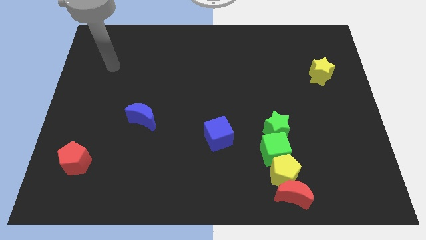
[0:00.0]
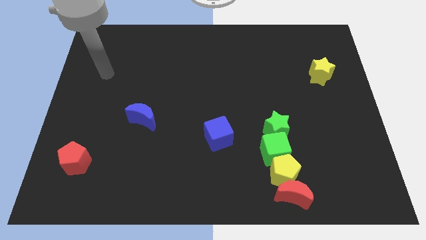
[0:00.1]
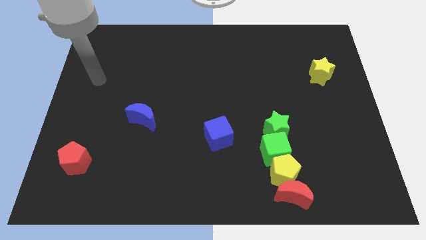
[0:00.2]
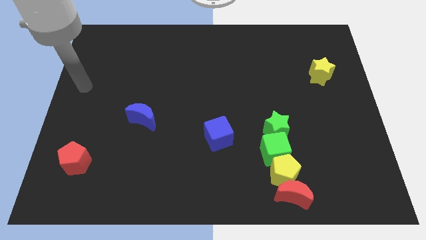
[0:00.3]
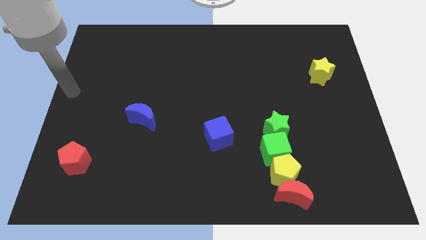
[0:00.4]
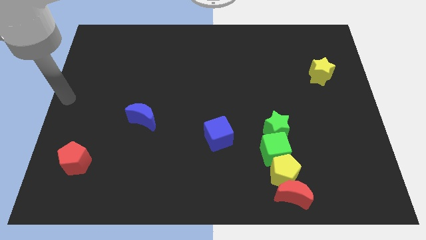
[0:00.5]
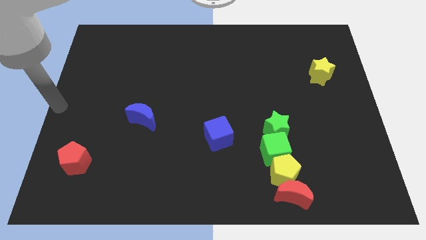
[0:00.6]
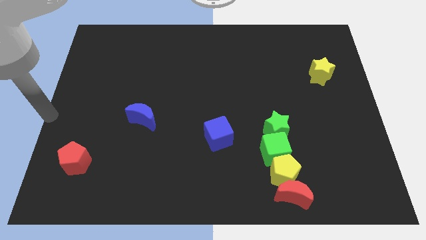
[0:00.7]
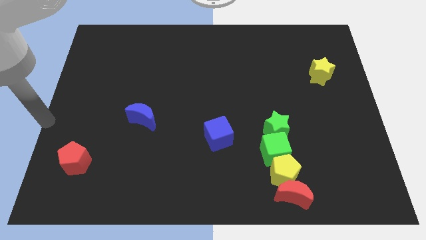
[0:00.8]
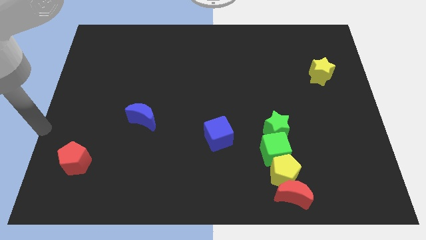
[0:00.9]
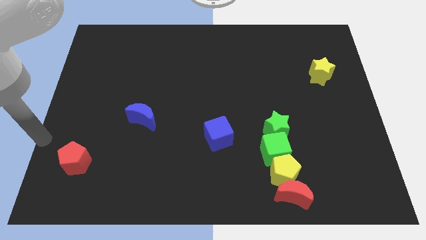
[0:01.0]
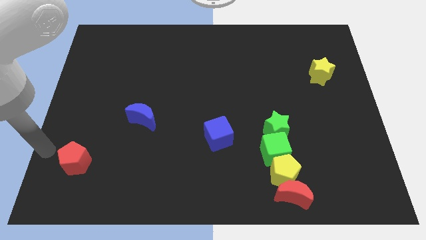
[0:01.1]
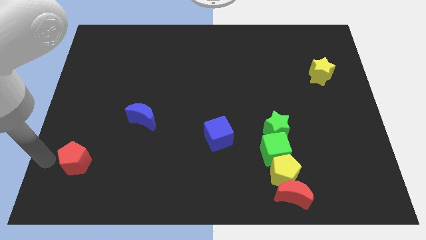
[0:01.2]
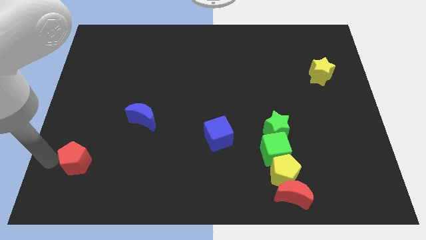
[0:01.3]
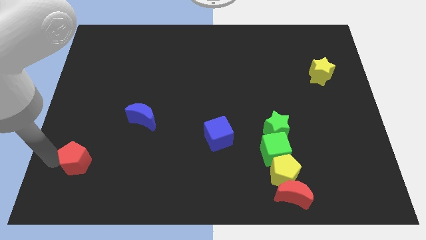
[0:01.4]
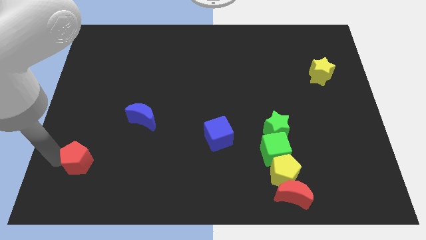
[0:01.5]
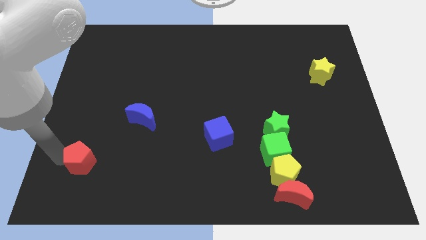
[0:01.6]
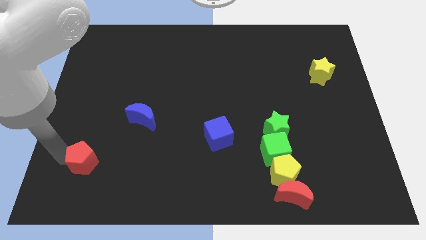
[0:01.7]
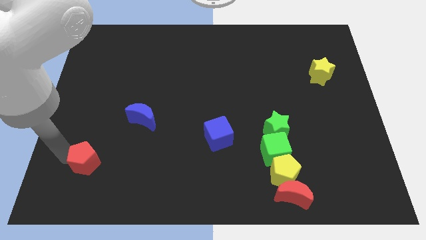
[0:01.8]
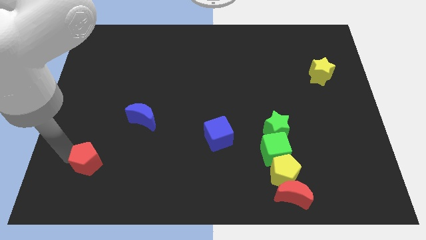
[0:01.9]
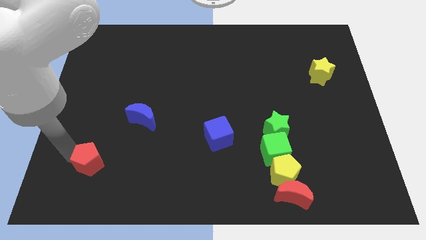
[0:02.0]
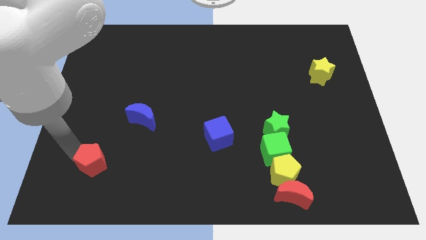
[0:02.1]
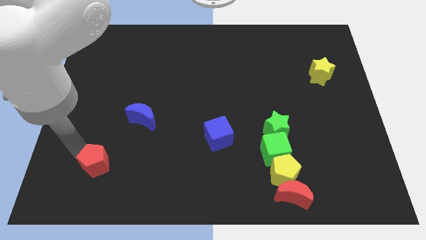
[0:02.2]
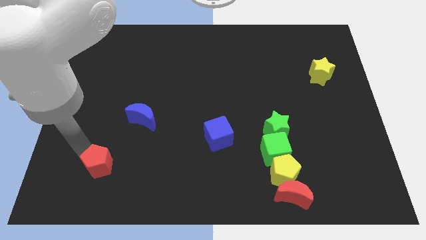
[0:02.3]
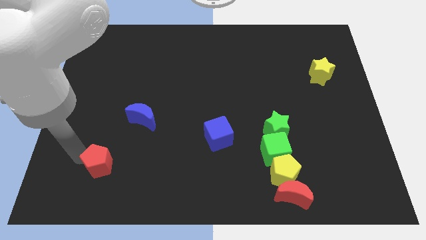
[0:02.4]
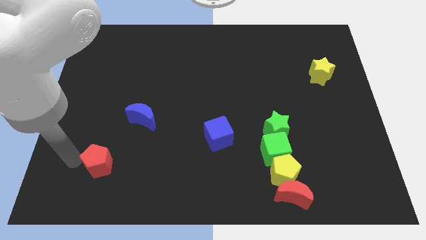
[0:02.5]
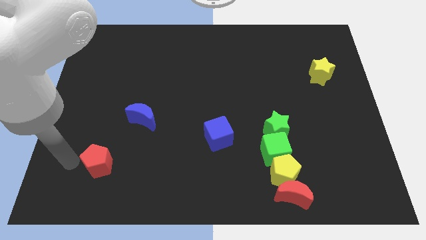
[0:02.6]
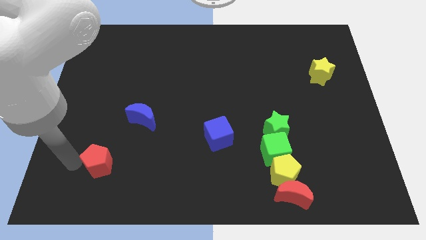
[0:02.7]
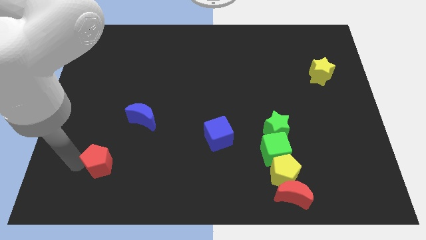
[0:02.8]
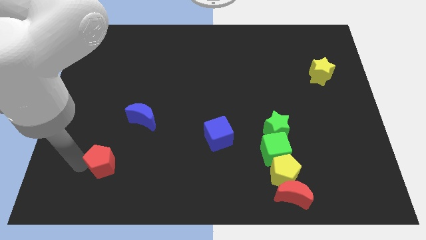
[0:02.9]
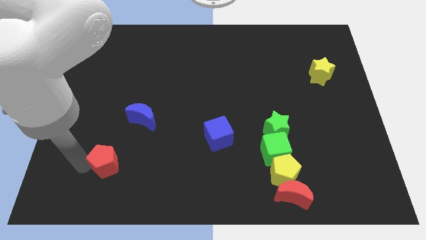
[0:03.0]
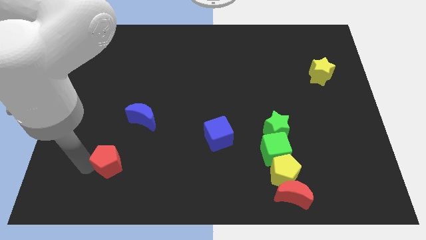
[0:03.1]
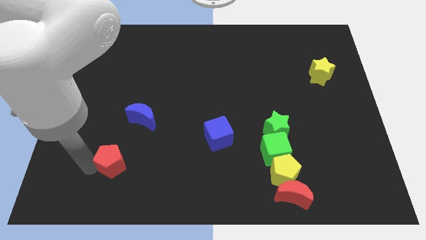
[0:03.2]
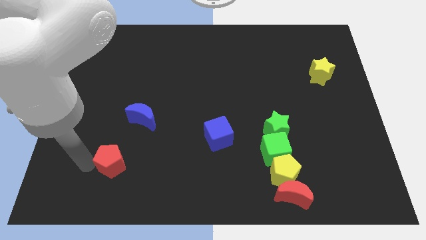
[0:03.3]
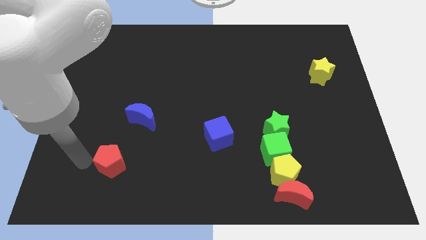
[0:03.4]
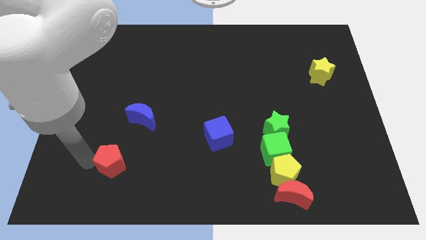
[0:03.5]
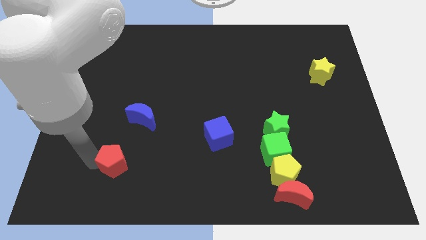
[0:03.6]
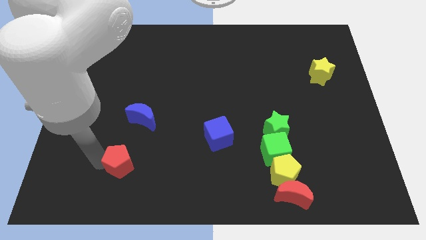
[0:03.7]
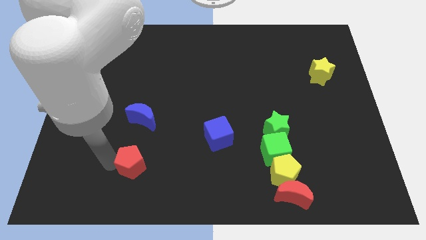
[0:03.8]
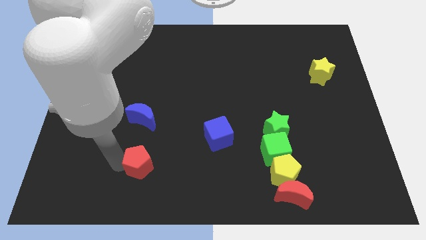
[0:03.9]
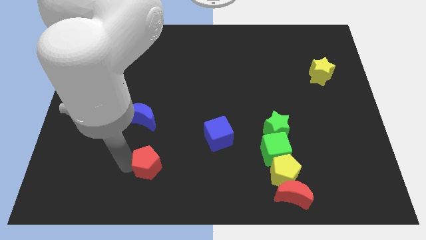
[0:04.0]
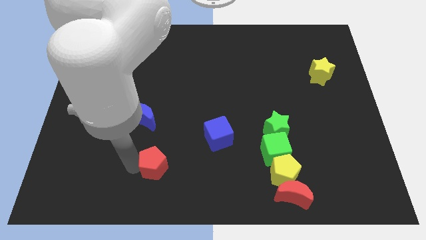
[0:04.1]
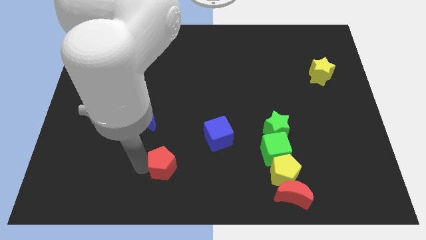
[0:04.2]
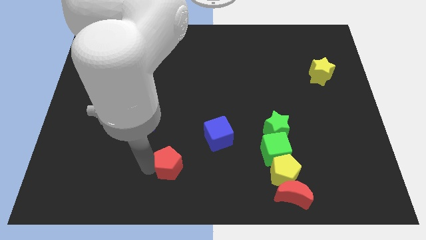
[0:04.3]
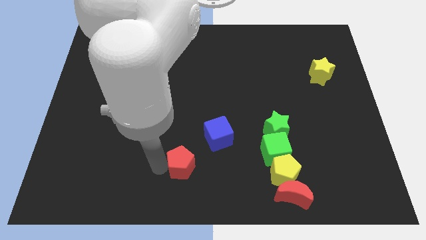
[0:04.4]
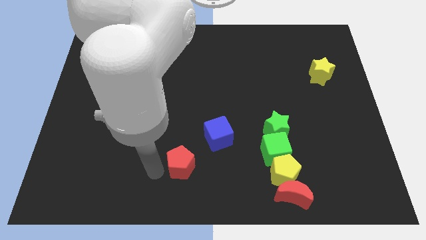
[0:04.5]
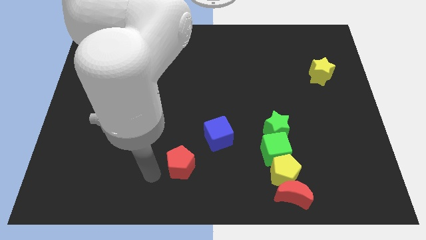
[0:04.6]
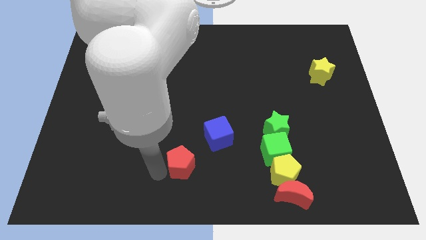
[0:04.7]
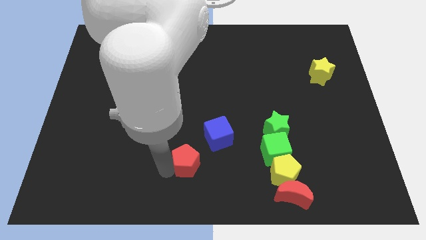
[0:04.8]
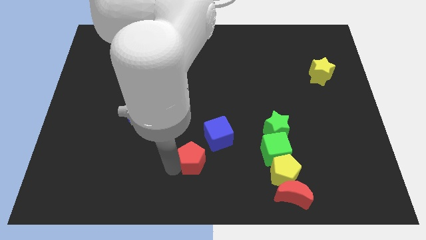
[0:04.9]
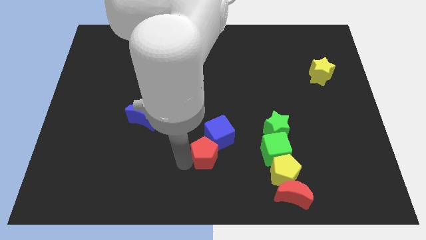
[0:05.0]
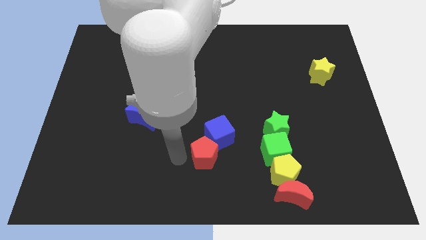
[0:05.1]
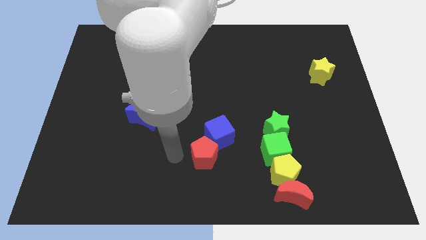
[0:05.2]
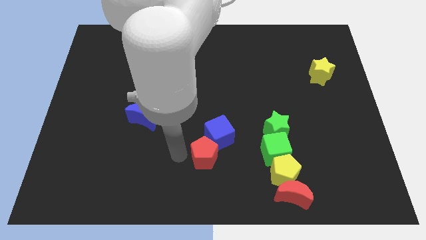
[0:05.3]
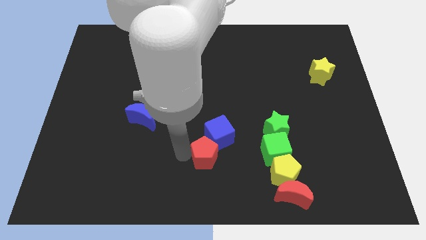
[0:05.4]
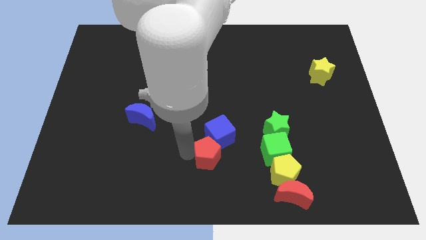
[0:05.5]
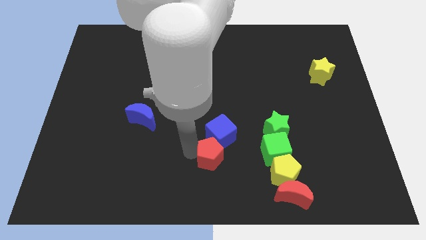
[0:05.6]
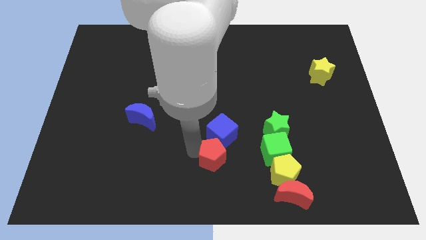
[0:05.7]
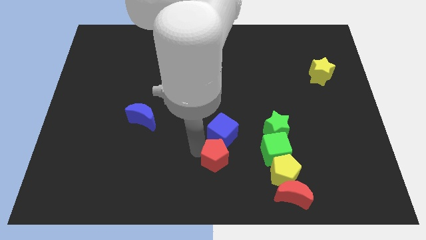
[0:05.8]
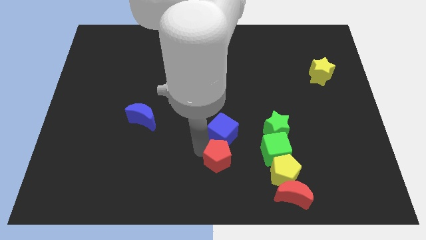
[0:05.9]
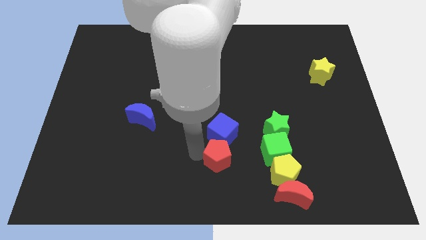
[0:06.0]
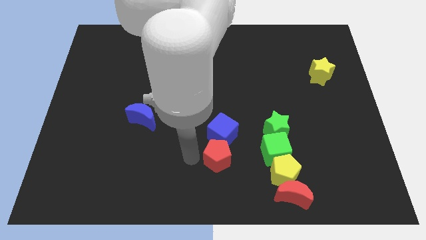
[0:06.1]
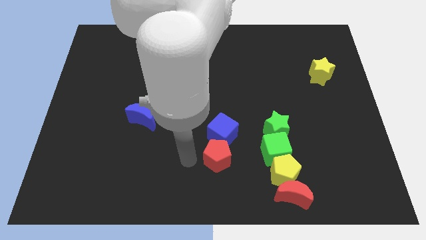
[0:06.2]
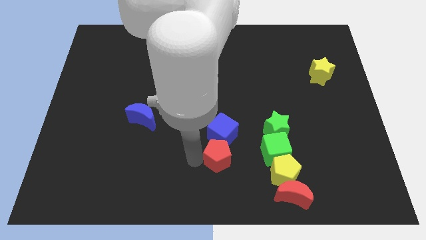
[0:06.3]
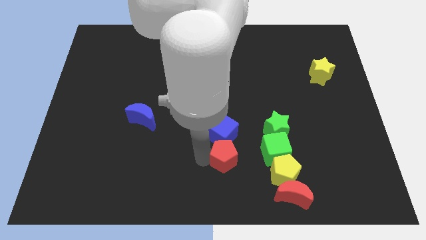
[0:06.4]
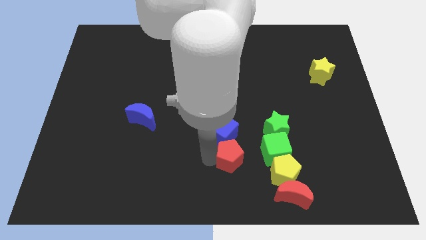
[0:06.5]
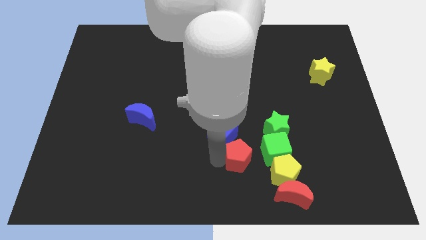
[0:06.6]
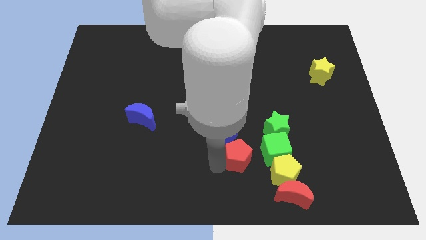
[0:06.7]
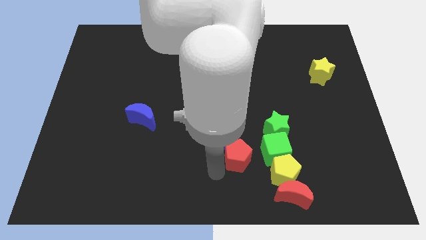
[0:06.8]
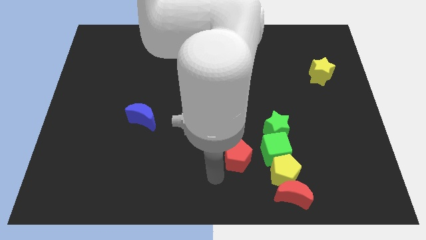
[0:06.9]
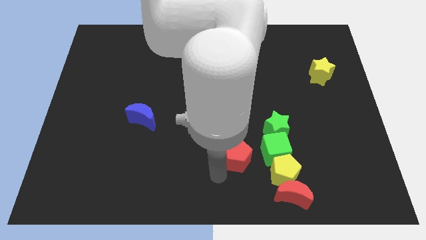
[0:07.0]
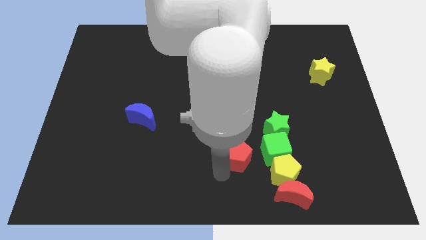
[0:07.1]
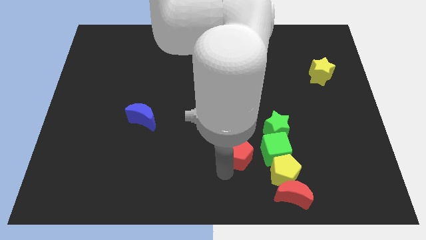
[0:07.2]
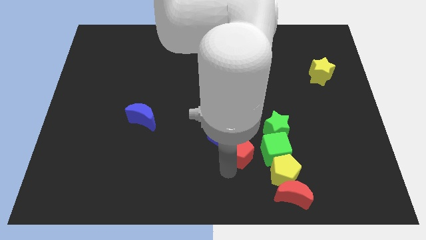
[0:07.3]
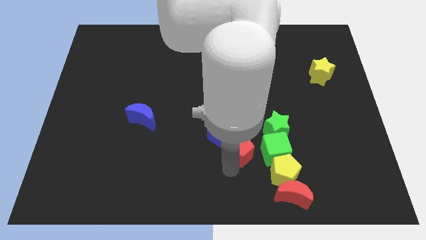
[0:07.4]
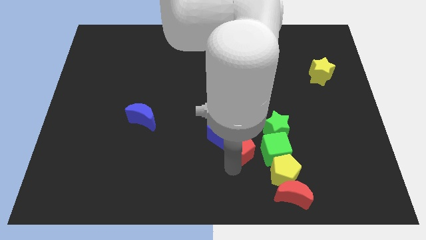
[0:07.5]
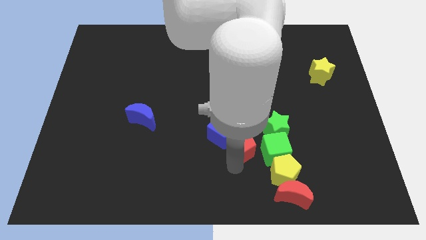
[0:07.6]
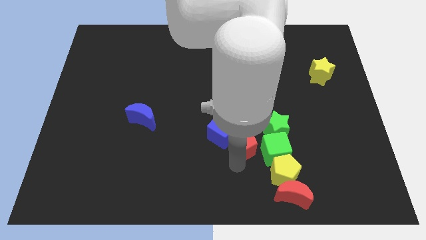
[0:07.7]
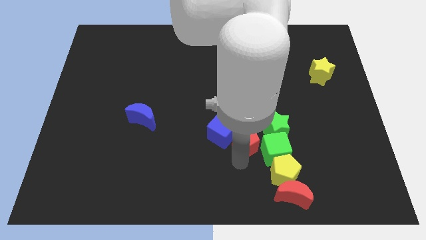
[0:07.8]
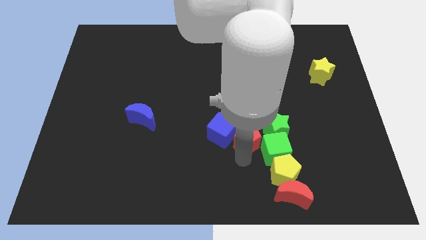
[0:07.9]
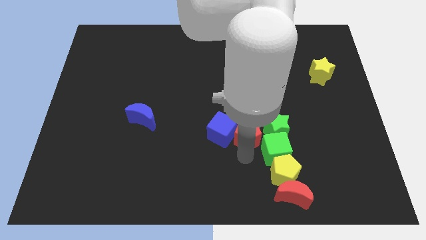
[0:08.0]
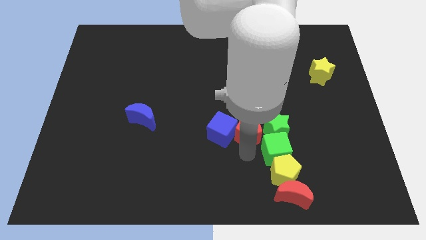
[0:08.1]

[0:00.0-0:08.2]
move the red pentagon to the green star
